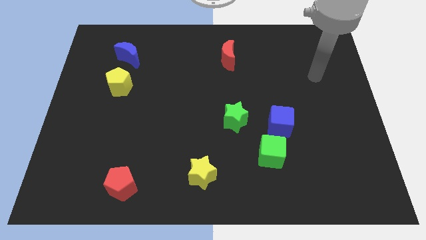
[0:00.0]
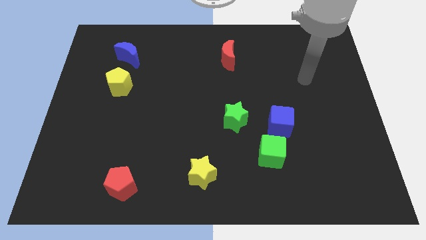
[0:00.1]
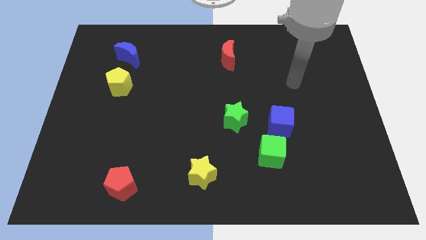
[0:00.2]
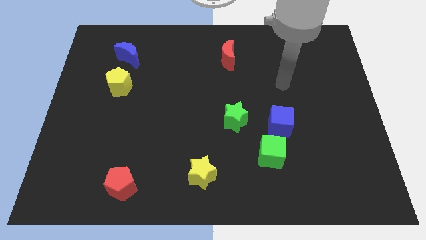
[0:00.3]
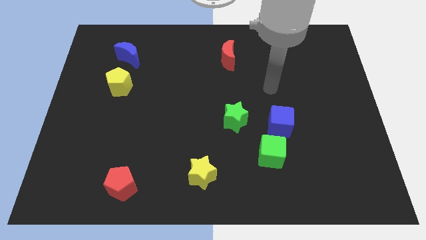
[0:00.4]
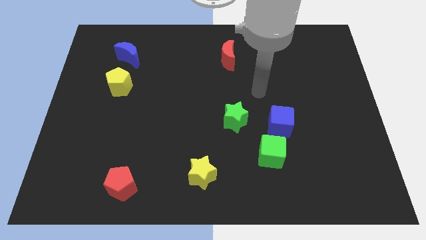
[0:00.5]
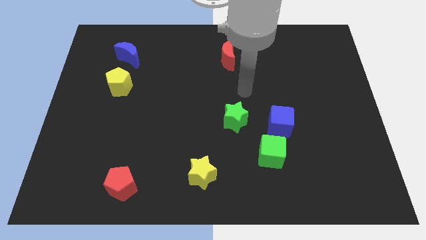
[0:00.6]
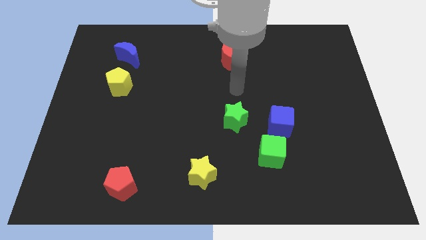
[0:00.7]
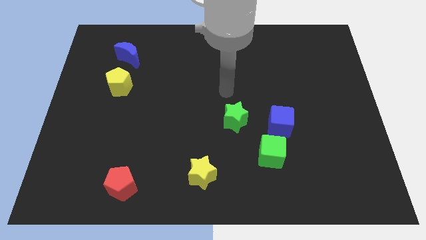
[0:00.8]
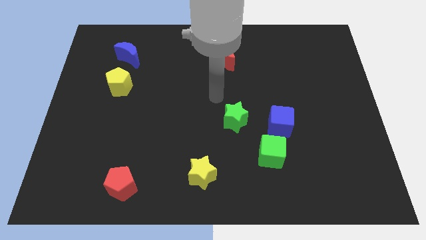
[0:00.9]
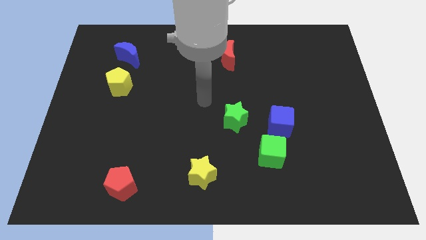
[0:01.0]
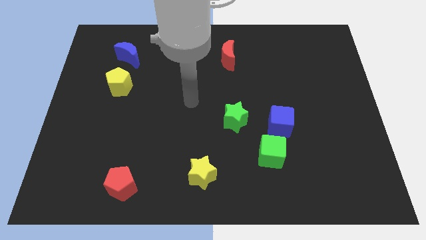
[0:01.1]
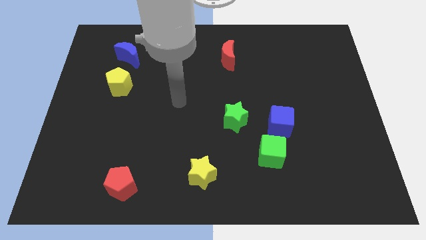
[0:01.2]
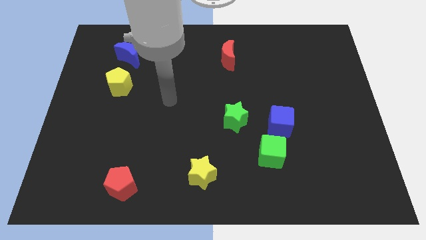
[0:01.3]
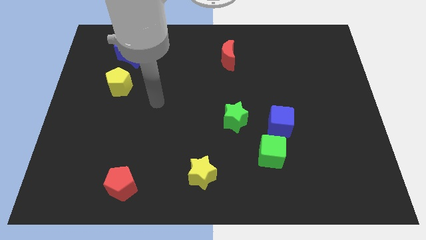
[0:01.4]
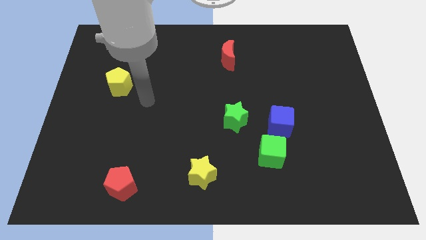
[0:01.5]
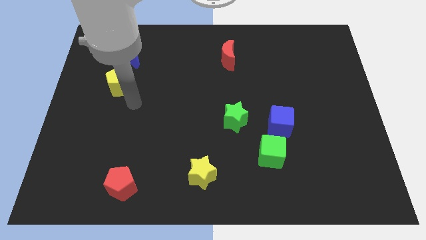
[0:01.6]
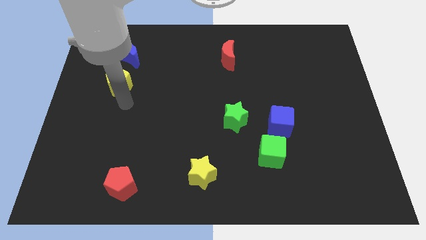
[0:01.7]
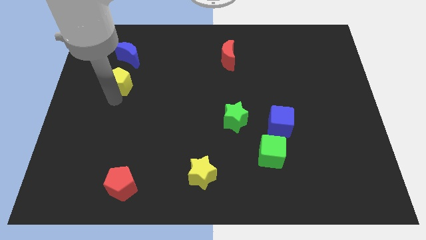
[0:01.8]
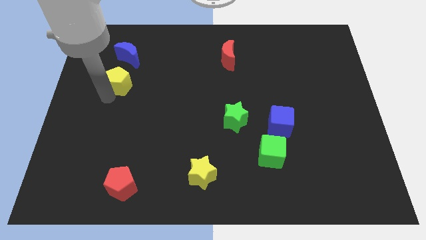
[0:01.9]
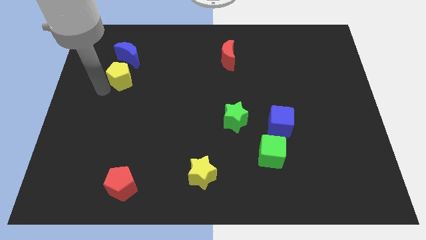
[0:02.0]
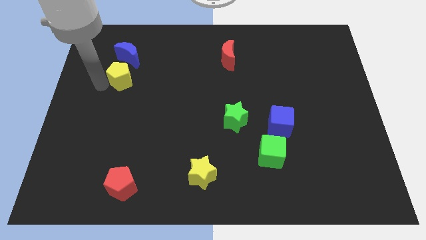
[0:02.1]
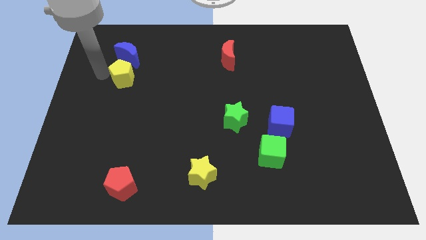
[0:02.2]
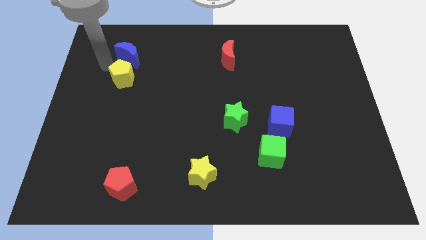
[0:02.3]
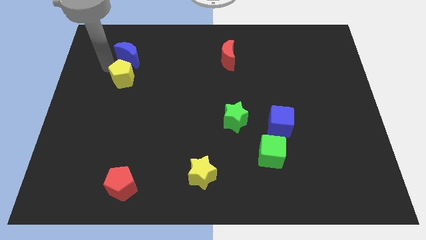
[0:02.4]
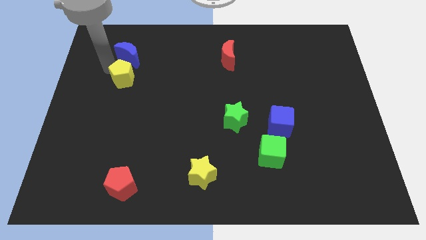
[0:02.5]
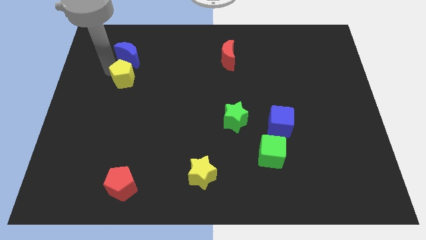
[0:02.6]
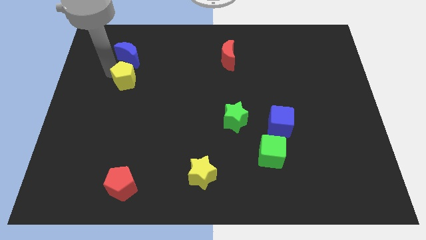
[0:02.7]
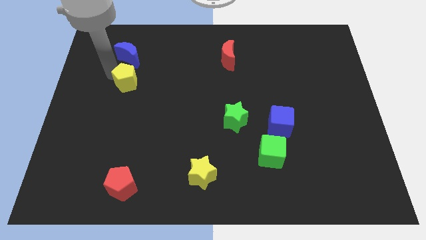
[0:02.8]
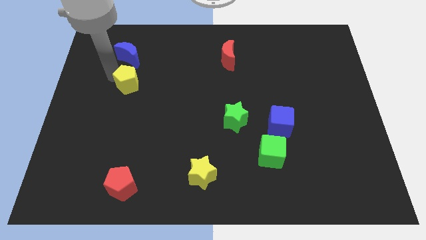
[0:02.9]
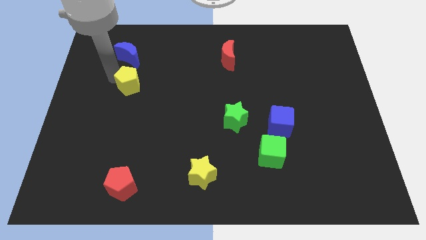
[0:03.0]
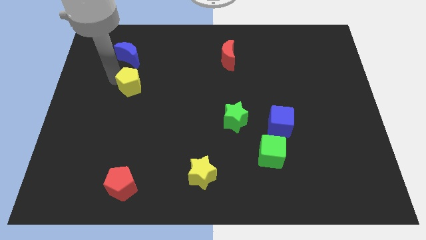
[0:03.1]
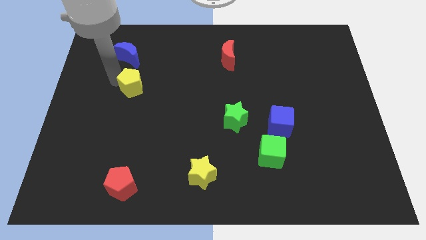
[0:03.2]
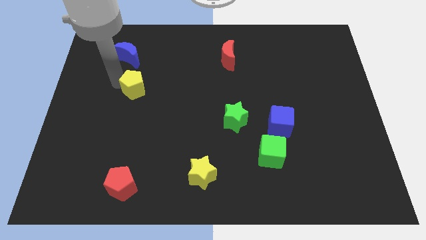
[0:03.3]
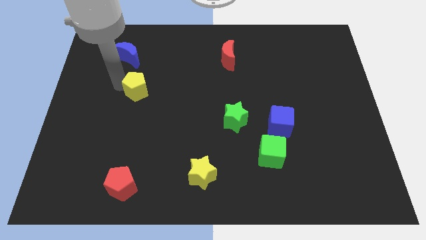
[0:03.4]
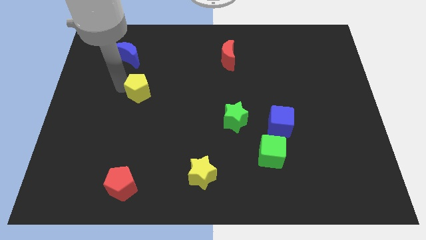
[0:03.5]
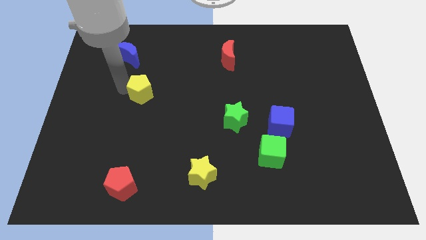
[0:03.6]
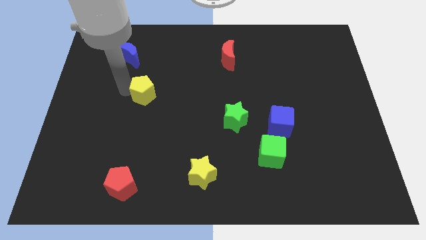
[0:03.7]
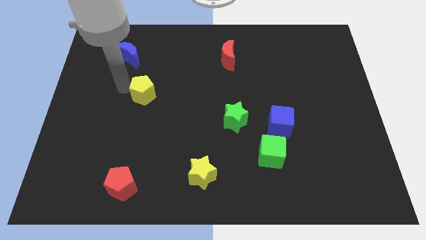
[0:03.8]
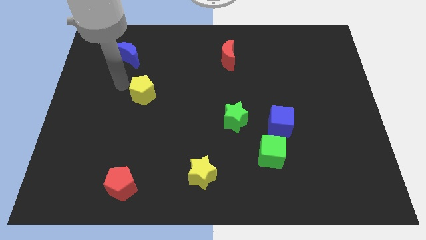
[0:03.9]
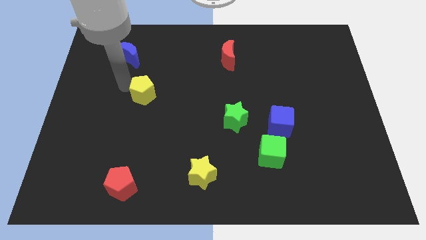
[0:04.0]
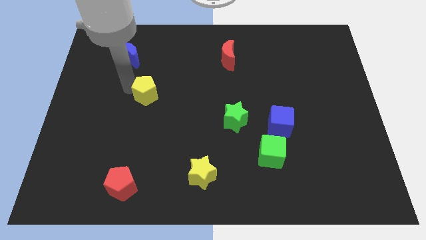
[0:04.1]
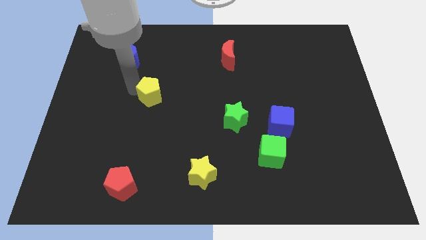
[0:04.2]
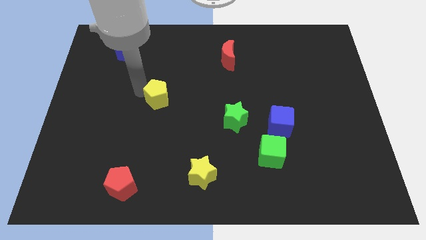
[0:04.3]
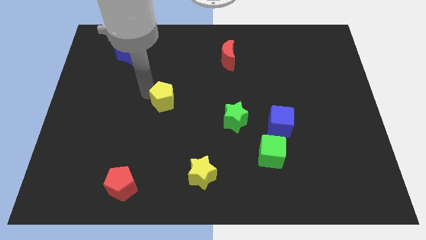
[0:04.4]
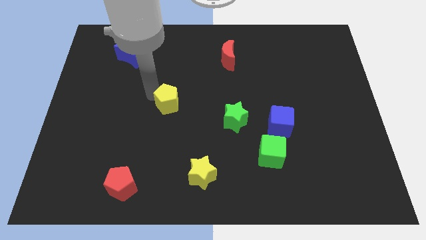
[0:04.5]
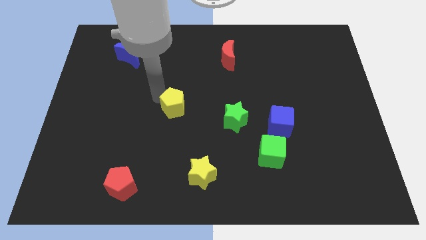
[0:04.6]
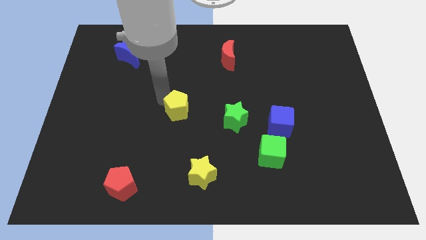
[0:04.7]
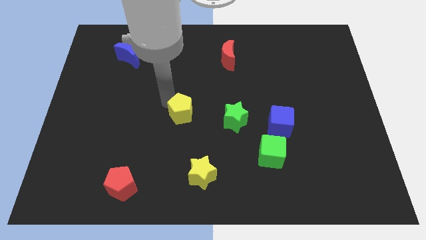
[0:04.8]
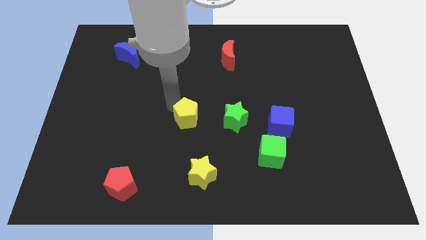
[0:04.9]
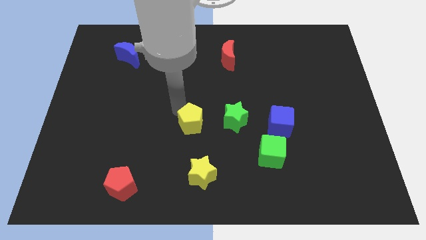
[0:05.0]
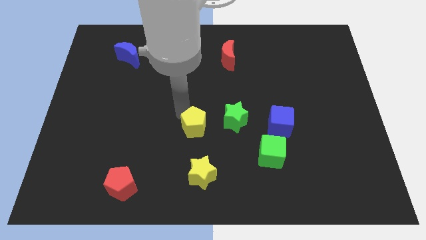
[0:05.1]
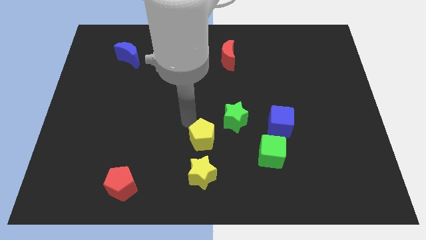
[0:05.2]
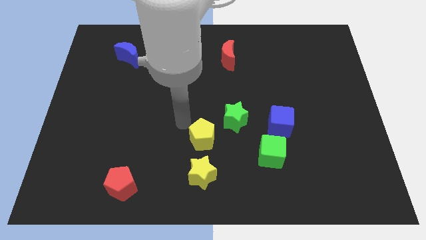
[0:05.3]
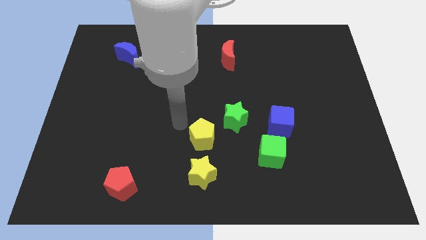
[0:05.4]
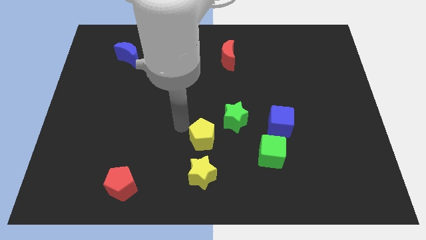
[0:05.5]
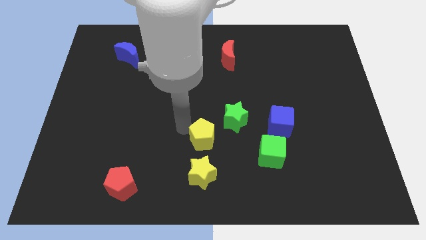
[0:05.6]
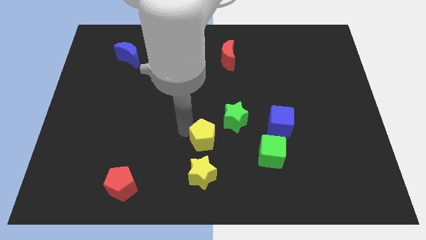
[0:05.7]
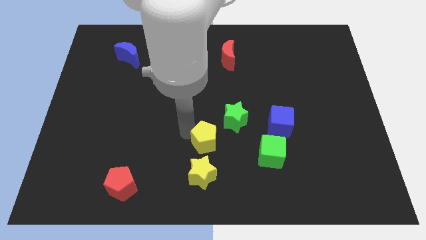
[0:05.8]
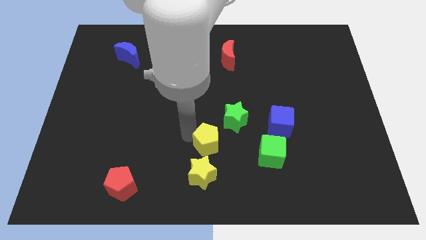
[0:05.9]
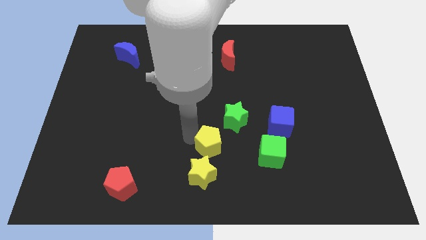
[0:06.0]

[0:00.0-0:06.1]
put the yellow pentagon to the top right of the yellow star

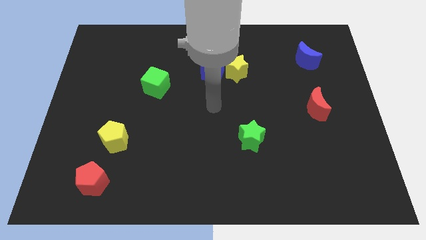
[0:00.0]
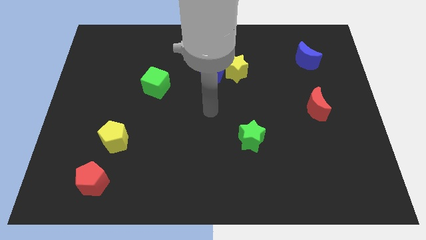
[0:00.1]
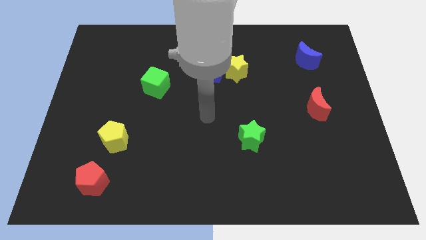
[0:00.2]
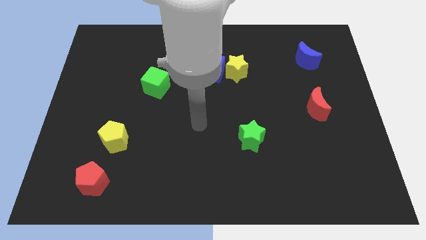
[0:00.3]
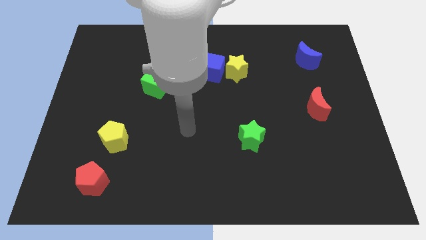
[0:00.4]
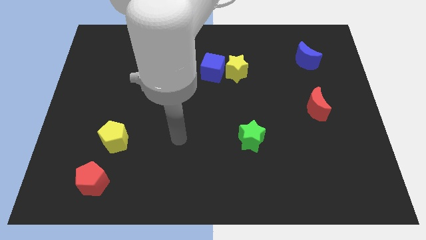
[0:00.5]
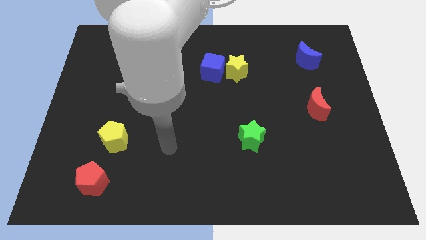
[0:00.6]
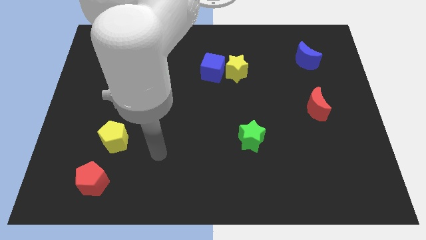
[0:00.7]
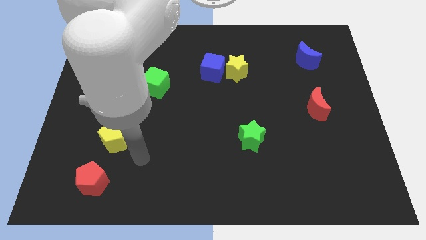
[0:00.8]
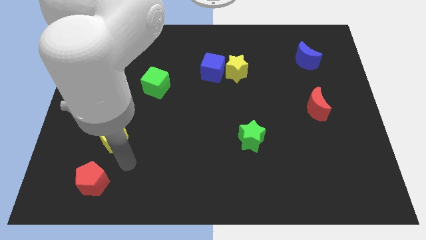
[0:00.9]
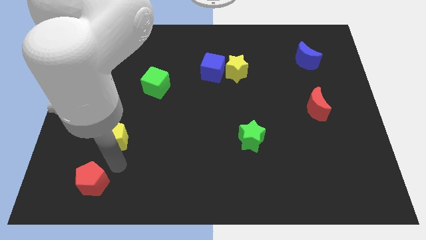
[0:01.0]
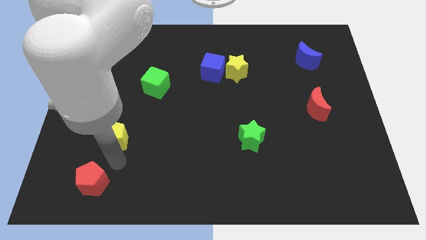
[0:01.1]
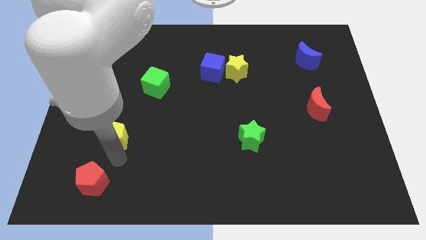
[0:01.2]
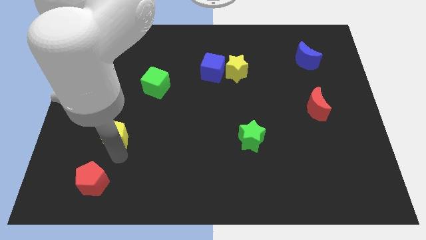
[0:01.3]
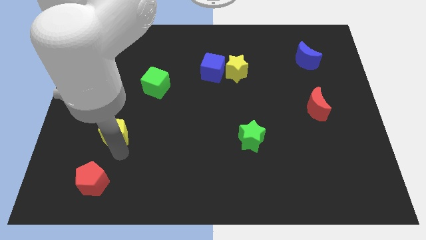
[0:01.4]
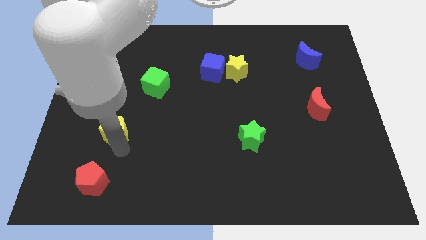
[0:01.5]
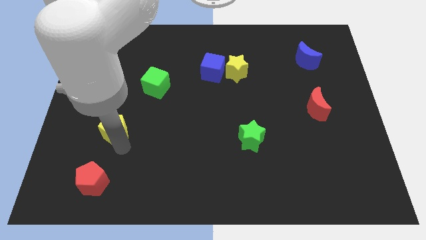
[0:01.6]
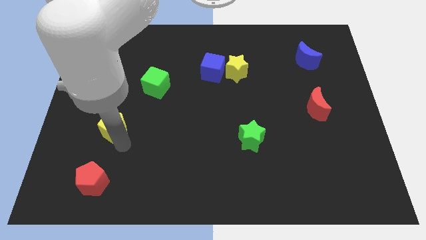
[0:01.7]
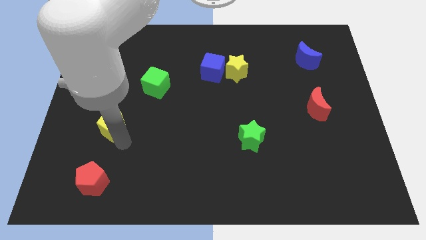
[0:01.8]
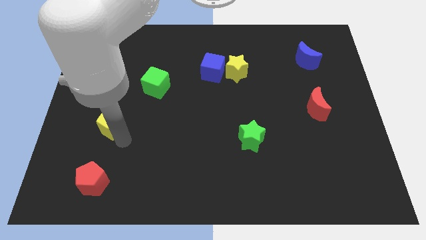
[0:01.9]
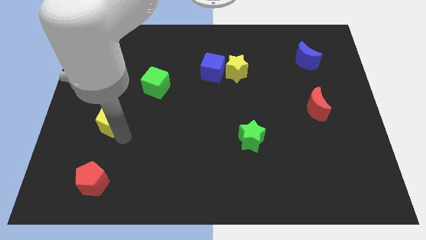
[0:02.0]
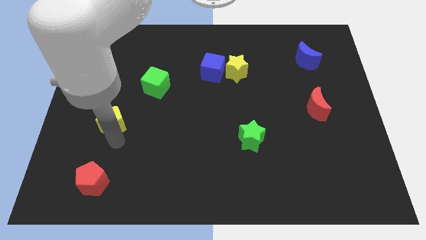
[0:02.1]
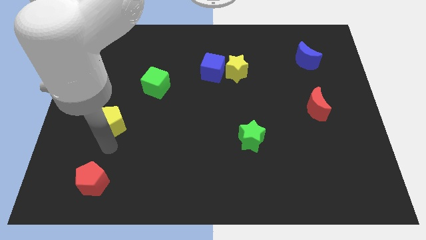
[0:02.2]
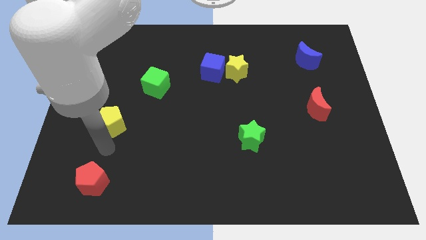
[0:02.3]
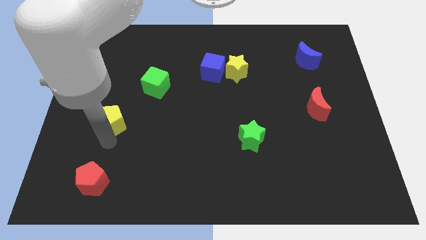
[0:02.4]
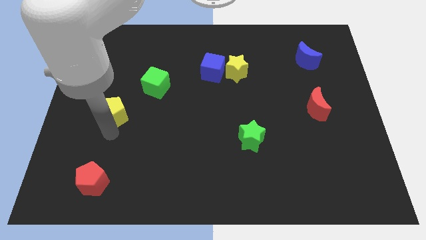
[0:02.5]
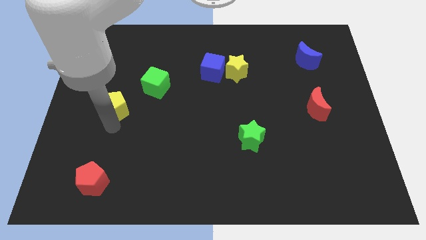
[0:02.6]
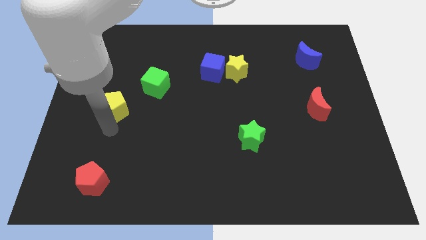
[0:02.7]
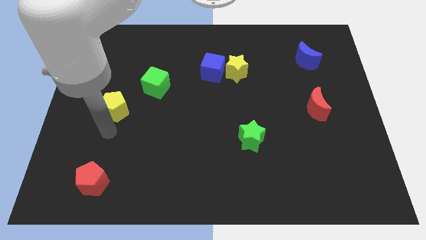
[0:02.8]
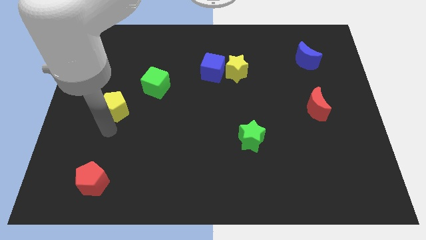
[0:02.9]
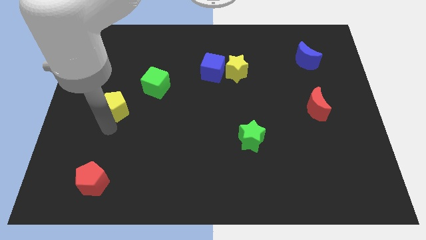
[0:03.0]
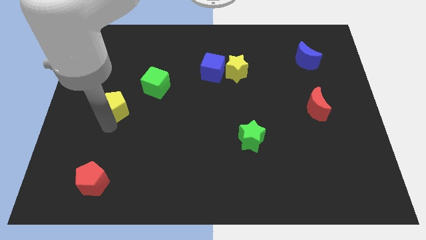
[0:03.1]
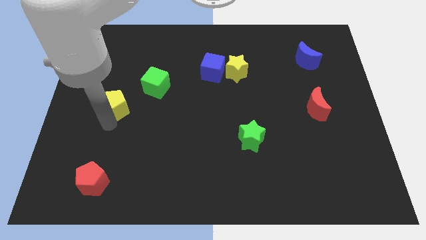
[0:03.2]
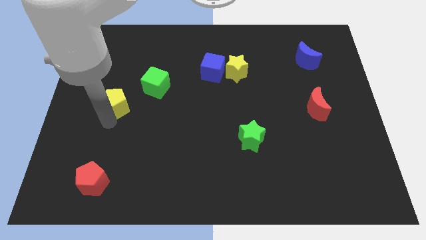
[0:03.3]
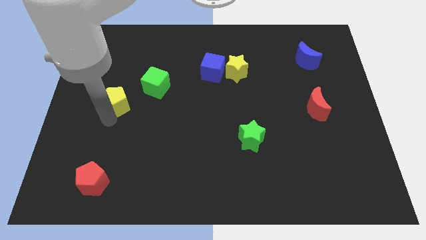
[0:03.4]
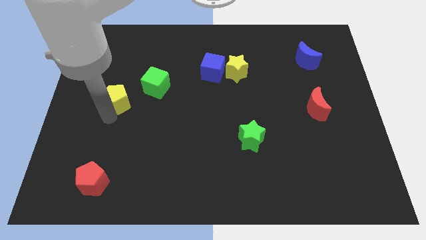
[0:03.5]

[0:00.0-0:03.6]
push the yellow pentagon just left of the green cube
